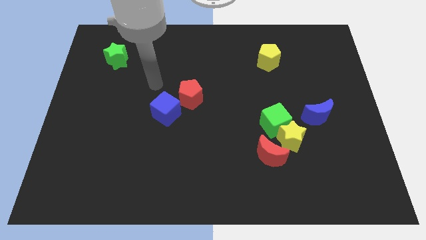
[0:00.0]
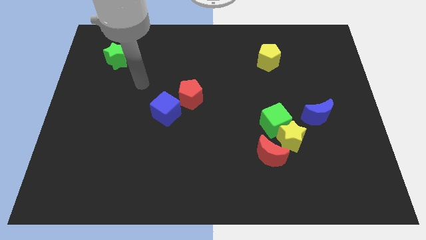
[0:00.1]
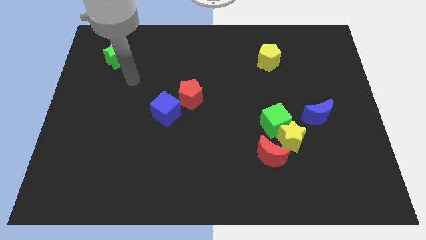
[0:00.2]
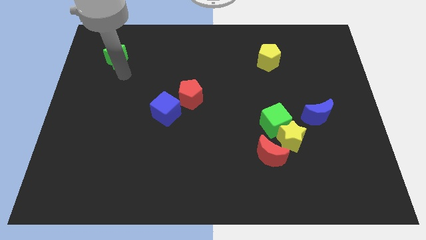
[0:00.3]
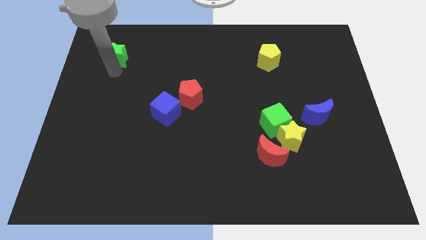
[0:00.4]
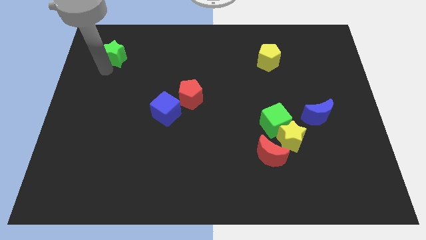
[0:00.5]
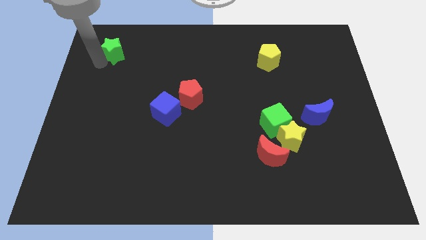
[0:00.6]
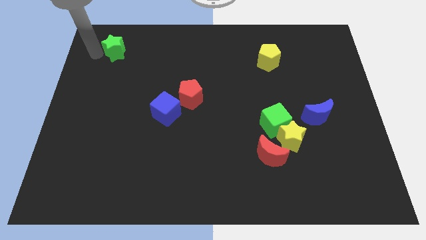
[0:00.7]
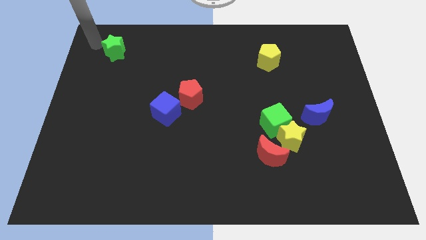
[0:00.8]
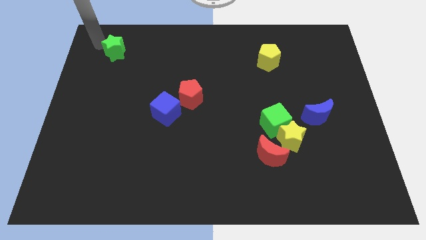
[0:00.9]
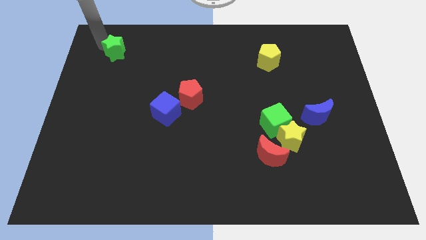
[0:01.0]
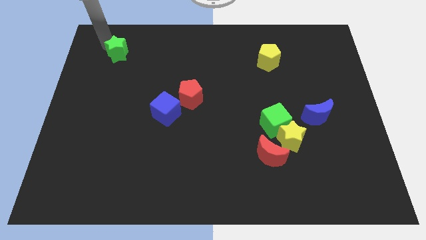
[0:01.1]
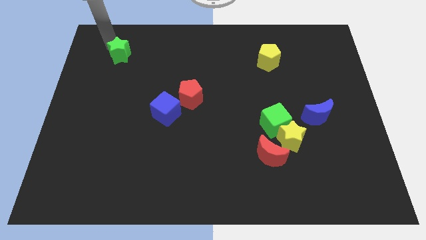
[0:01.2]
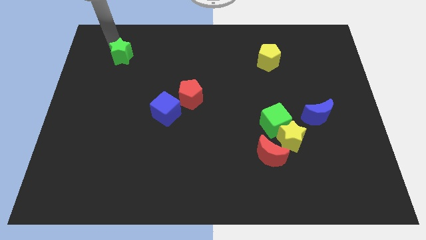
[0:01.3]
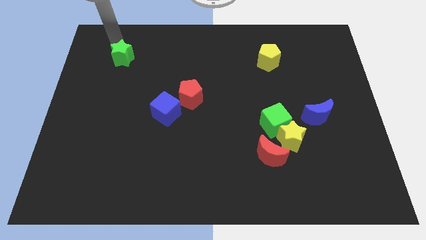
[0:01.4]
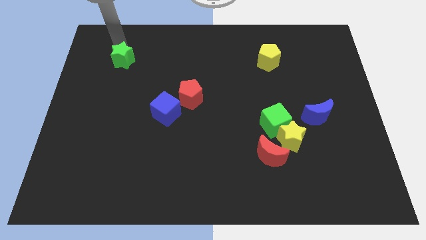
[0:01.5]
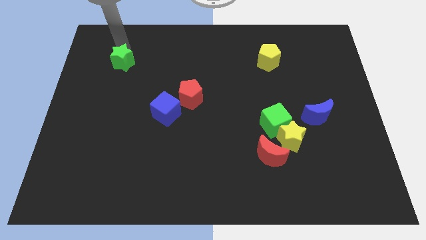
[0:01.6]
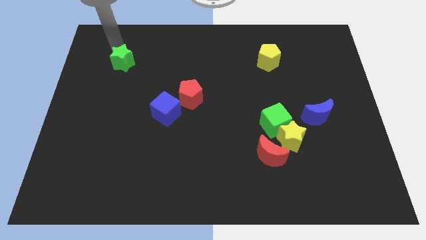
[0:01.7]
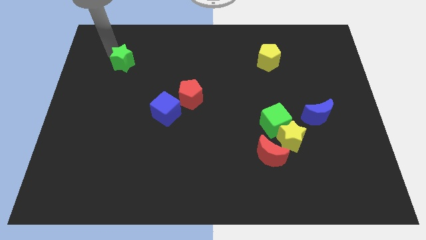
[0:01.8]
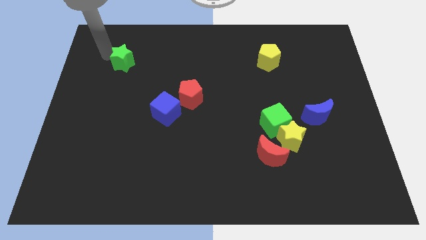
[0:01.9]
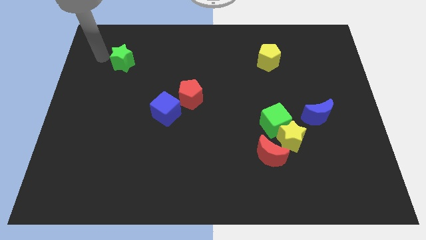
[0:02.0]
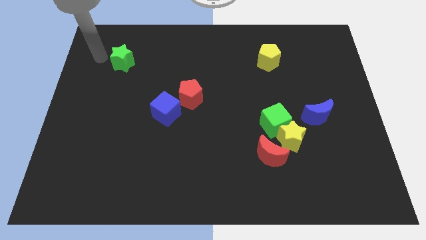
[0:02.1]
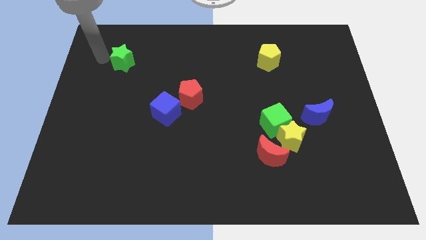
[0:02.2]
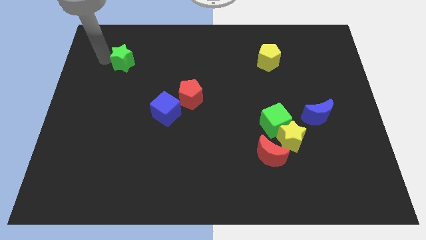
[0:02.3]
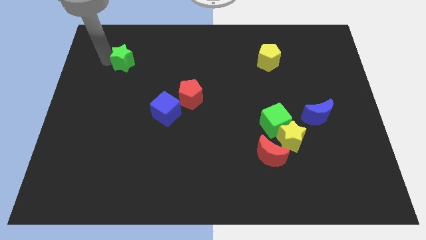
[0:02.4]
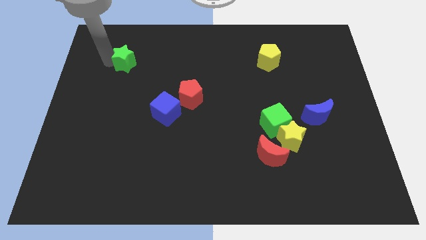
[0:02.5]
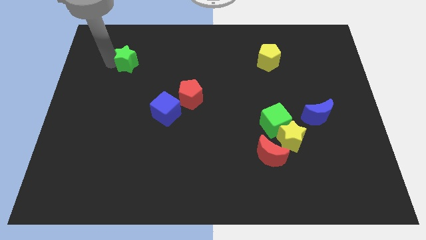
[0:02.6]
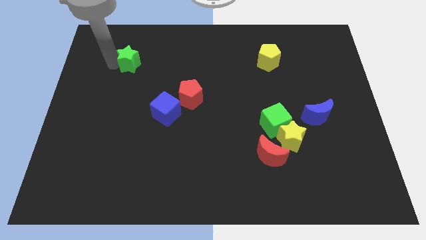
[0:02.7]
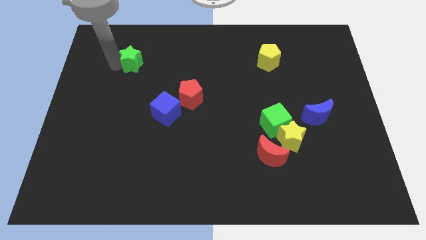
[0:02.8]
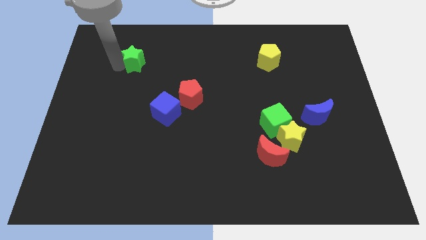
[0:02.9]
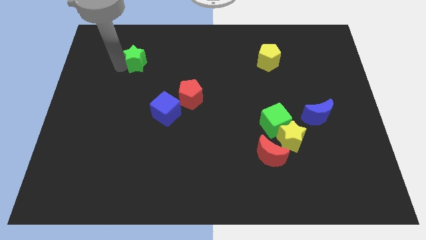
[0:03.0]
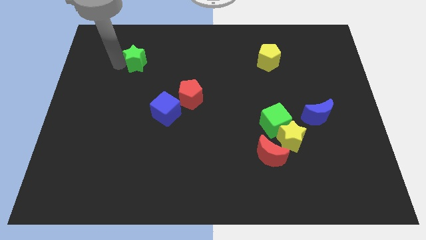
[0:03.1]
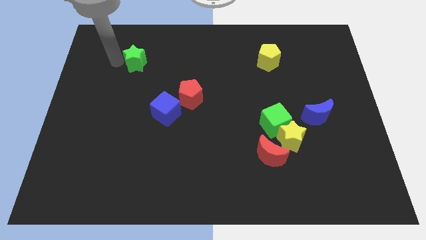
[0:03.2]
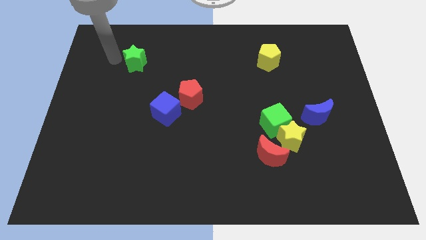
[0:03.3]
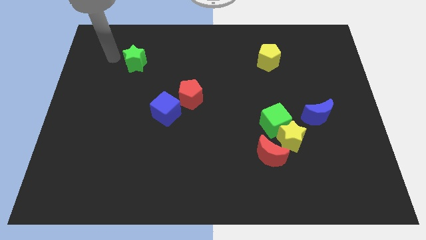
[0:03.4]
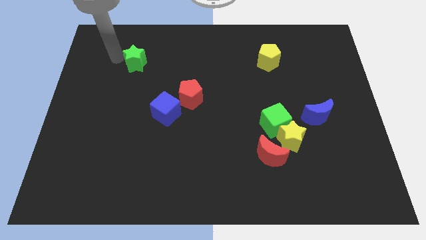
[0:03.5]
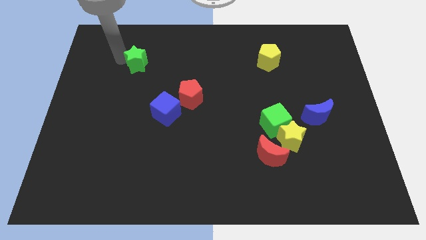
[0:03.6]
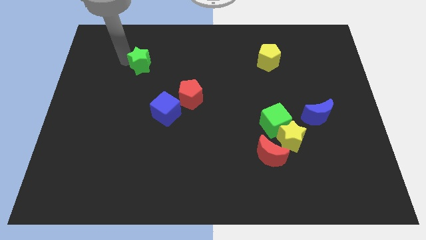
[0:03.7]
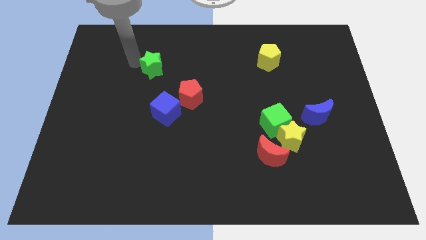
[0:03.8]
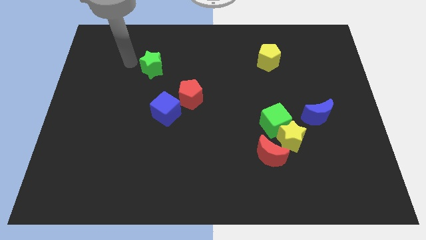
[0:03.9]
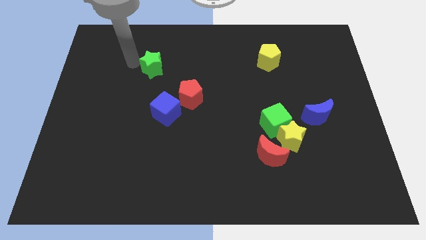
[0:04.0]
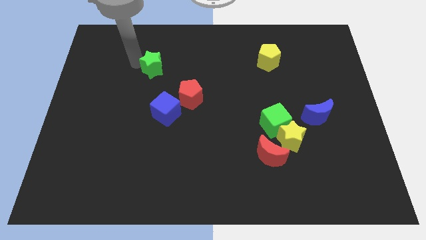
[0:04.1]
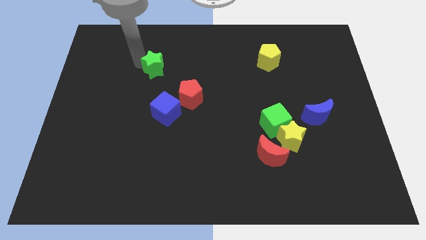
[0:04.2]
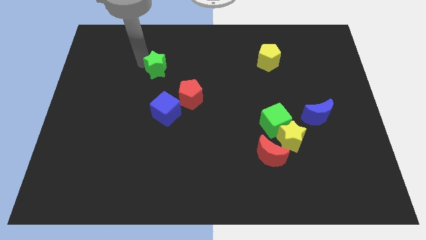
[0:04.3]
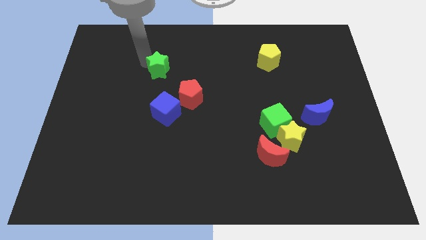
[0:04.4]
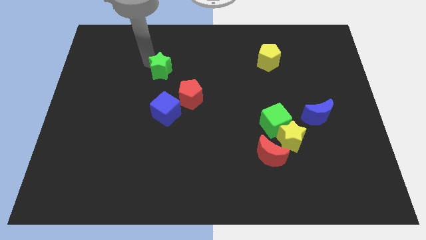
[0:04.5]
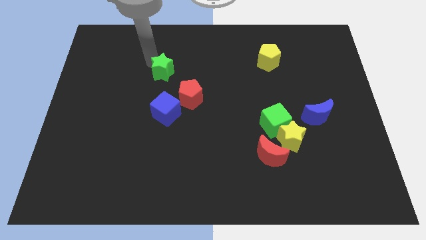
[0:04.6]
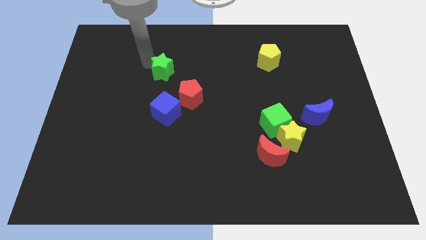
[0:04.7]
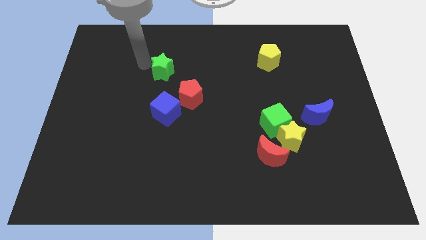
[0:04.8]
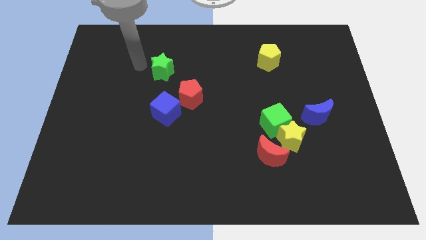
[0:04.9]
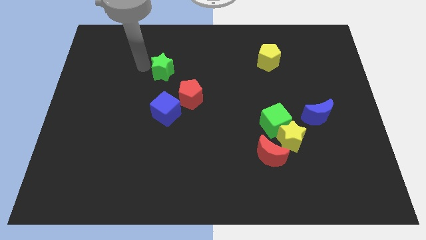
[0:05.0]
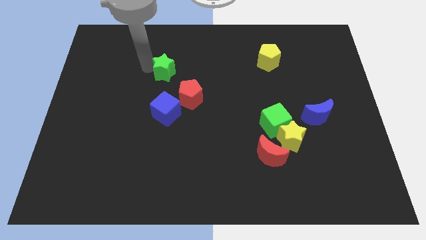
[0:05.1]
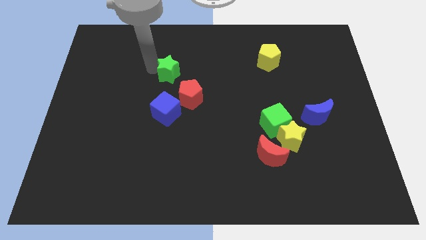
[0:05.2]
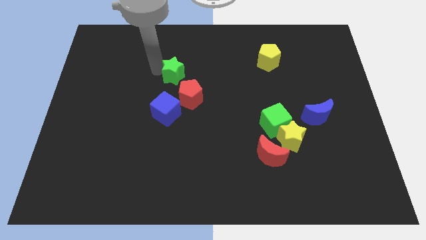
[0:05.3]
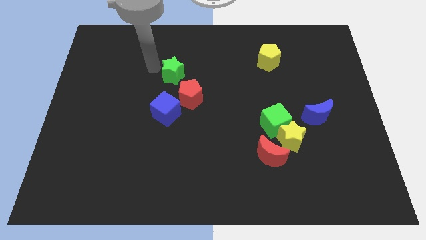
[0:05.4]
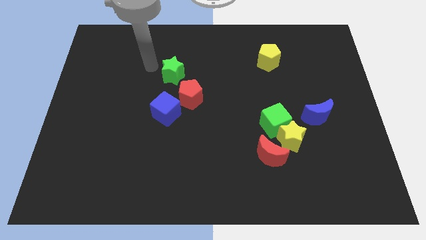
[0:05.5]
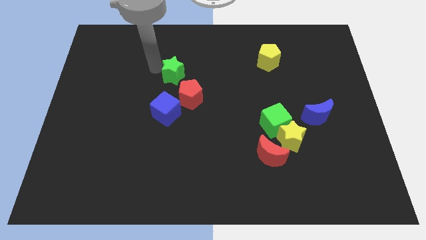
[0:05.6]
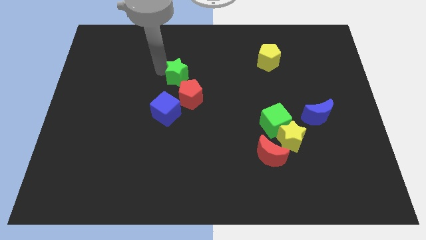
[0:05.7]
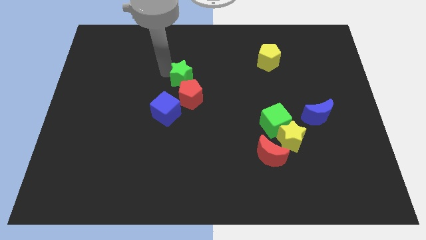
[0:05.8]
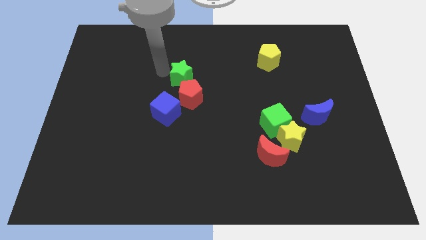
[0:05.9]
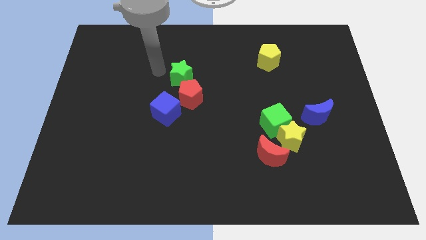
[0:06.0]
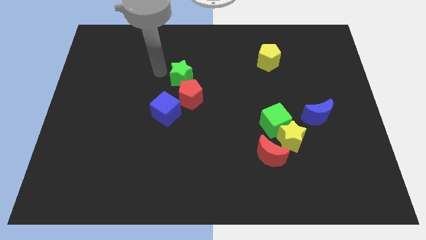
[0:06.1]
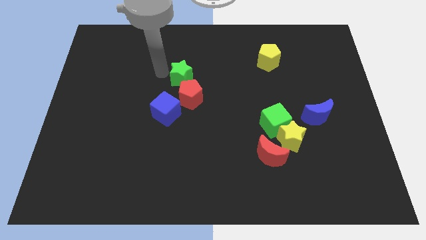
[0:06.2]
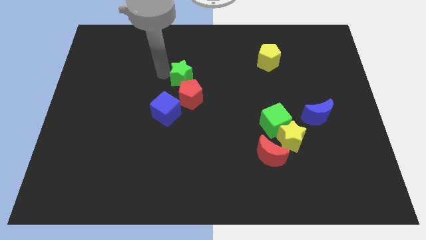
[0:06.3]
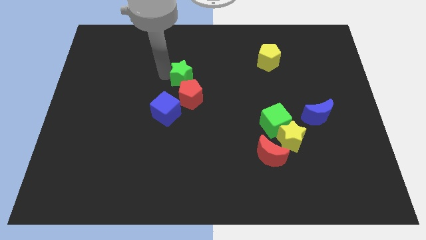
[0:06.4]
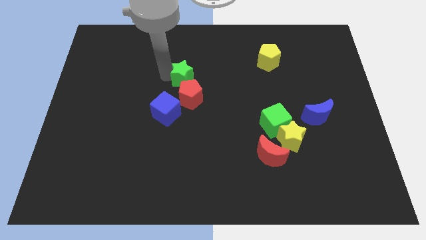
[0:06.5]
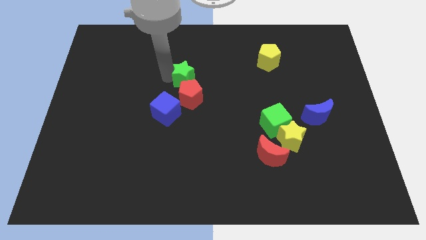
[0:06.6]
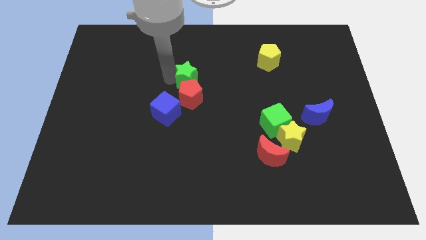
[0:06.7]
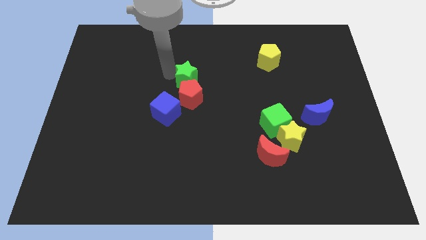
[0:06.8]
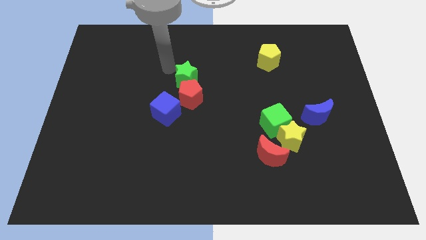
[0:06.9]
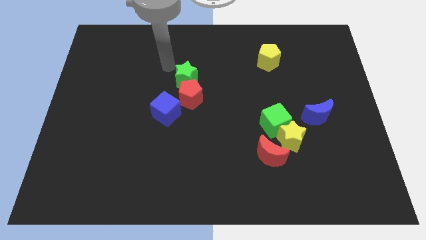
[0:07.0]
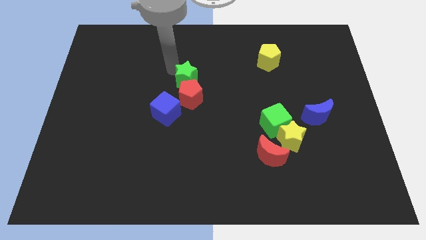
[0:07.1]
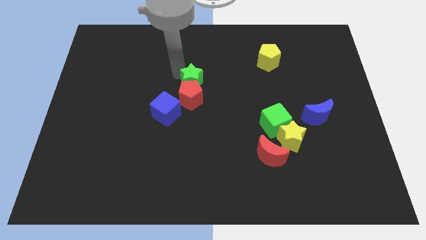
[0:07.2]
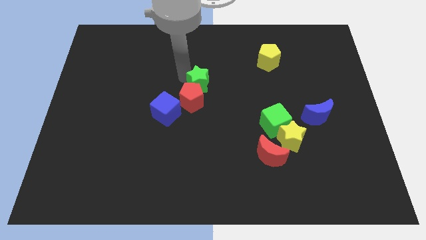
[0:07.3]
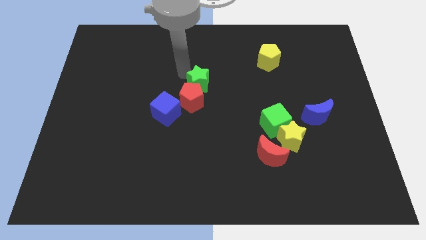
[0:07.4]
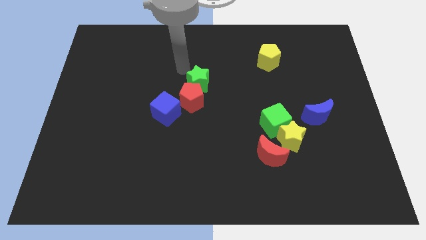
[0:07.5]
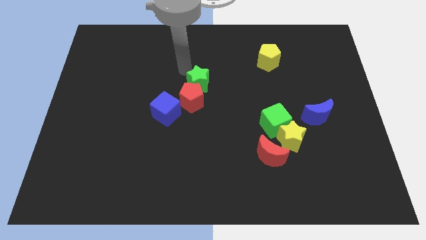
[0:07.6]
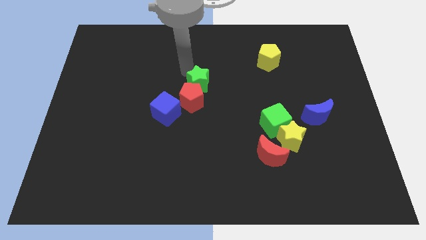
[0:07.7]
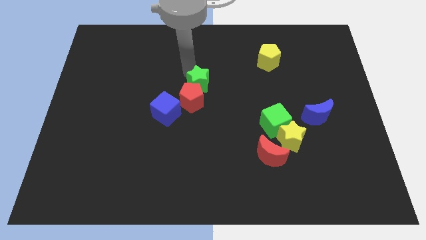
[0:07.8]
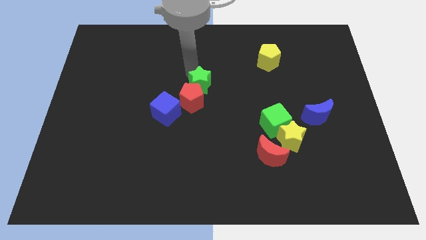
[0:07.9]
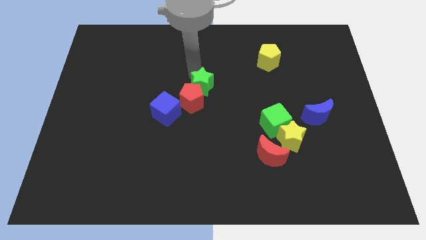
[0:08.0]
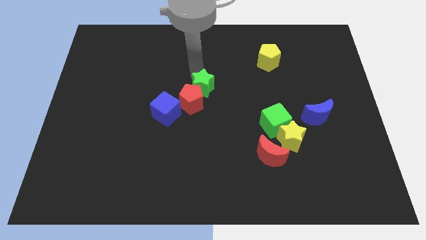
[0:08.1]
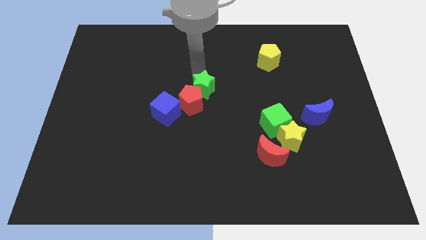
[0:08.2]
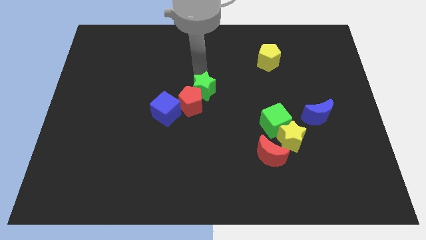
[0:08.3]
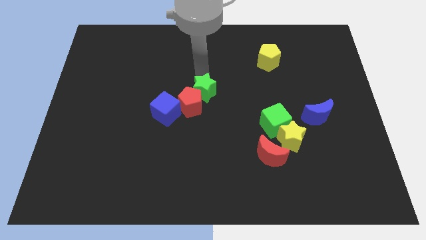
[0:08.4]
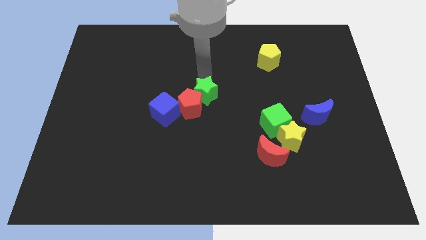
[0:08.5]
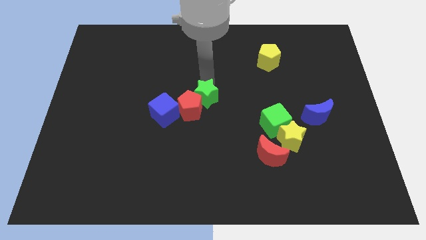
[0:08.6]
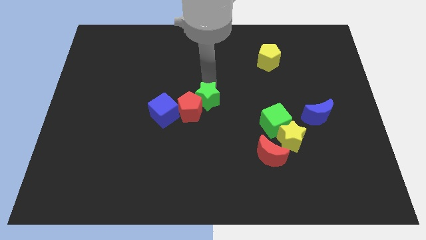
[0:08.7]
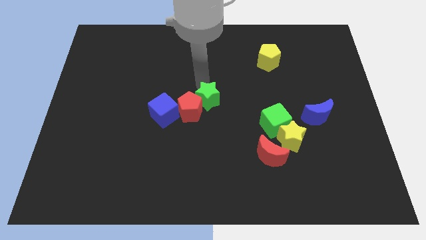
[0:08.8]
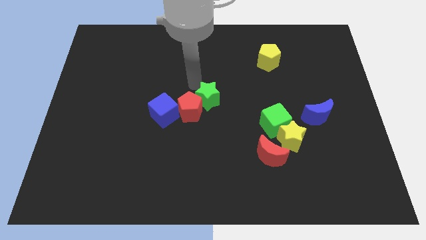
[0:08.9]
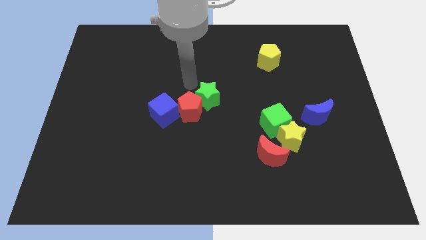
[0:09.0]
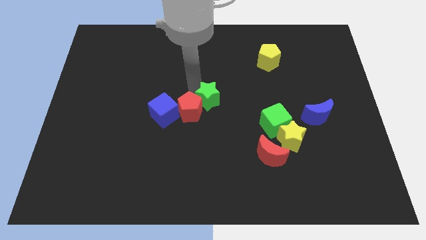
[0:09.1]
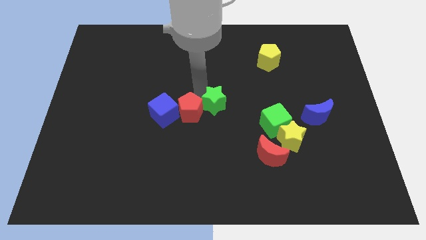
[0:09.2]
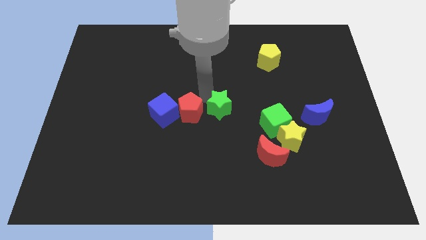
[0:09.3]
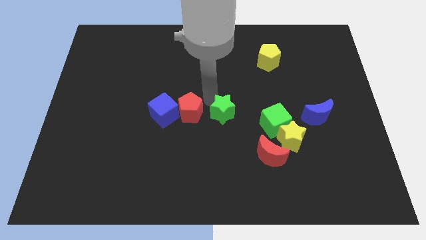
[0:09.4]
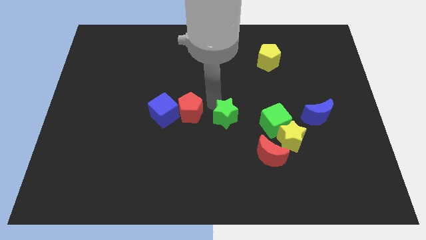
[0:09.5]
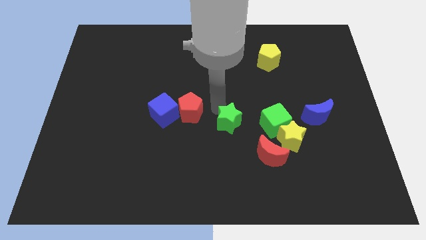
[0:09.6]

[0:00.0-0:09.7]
push the green star to the top left side of the red moon
